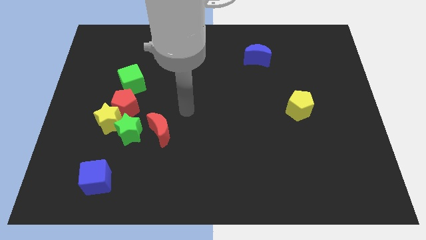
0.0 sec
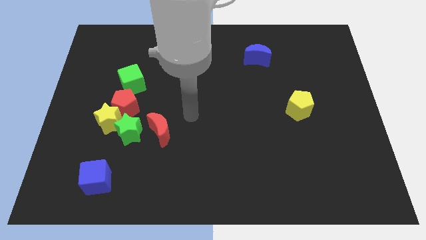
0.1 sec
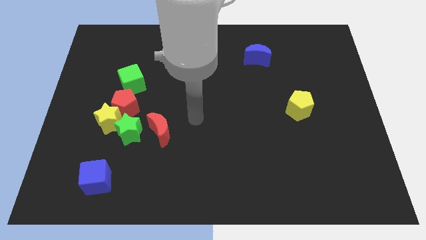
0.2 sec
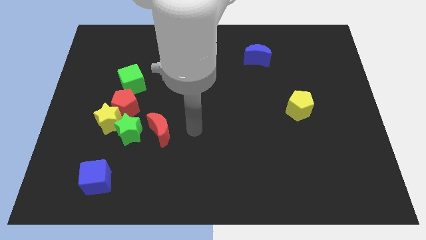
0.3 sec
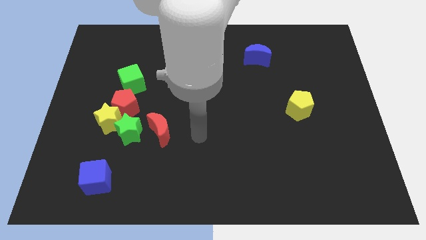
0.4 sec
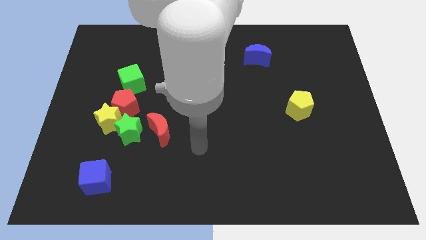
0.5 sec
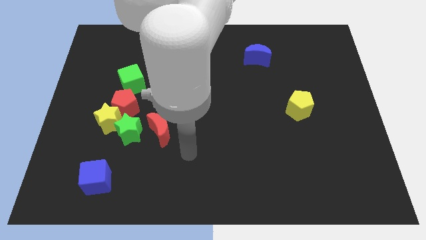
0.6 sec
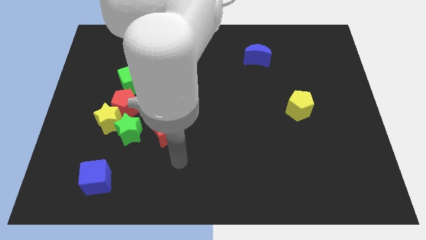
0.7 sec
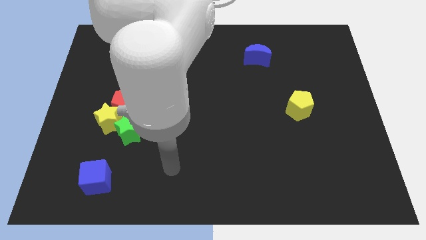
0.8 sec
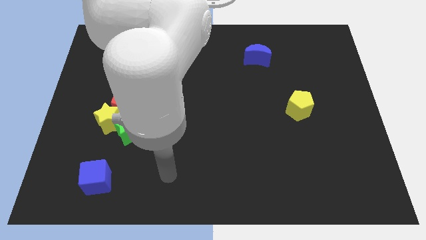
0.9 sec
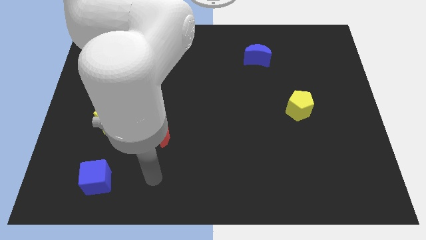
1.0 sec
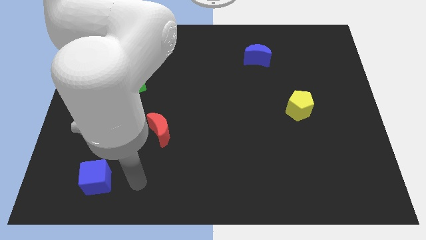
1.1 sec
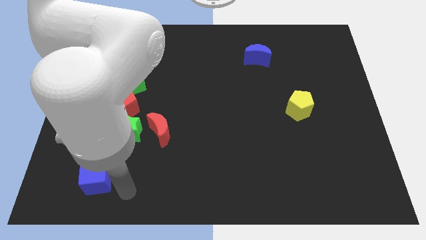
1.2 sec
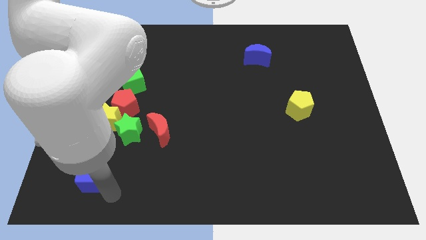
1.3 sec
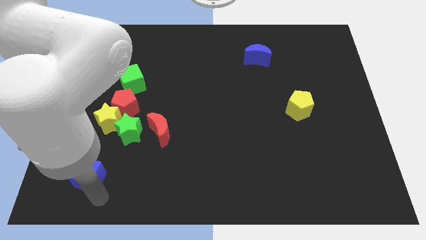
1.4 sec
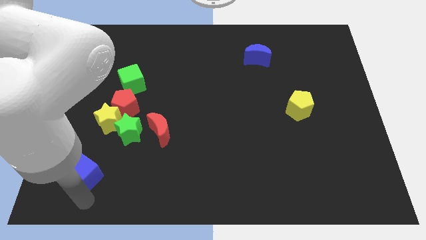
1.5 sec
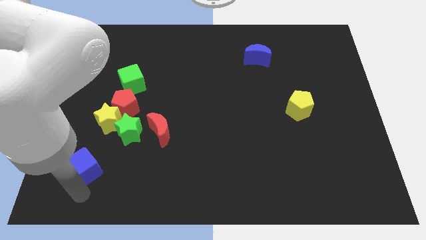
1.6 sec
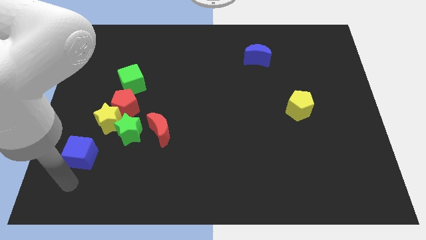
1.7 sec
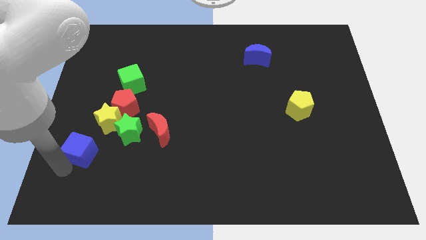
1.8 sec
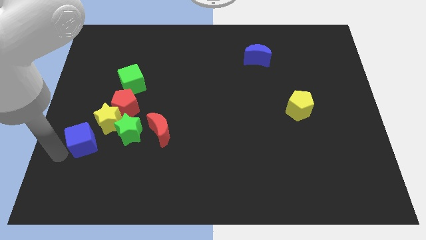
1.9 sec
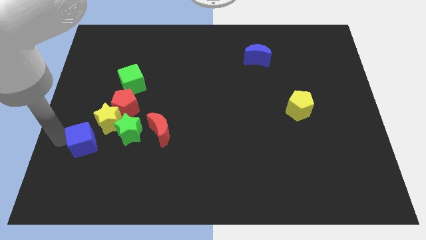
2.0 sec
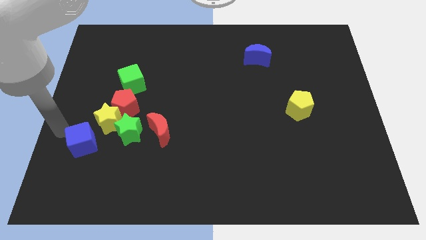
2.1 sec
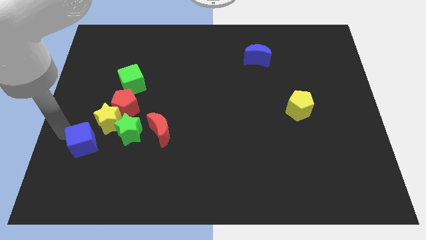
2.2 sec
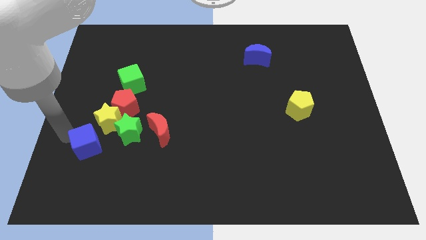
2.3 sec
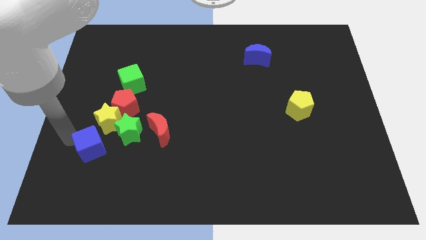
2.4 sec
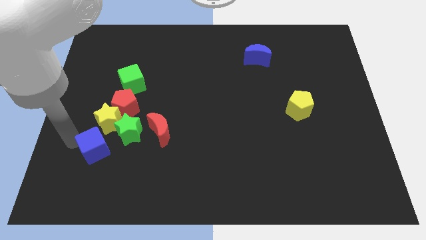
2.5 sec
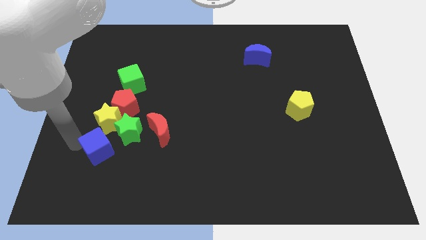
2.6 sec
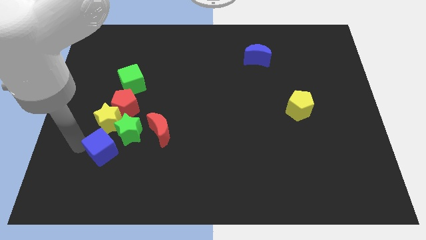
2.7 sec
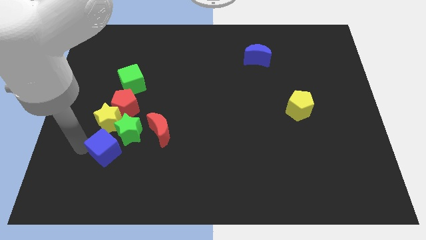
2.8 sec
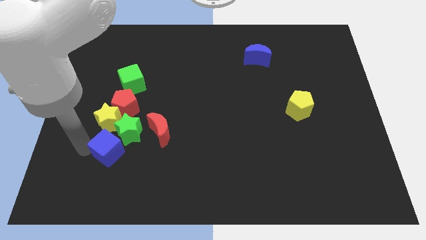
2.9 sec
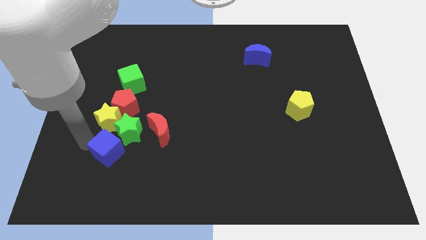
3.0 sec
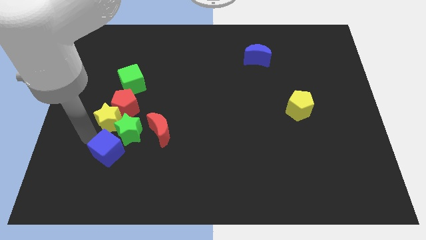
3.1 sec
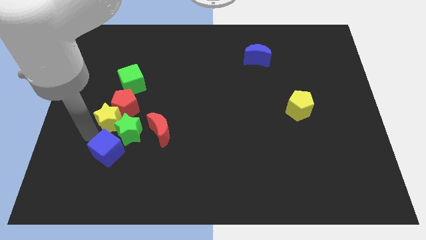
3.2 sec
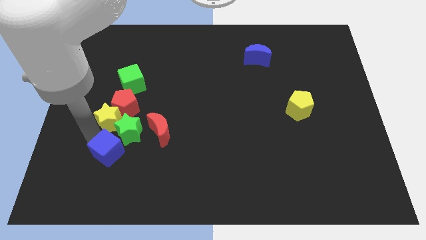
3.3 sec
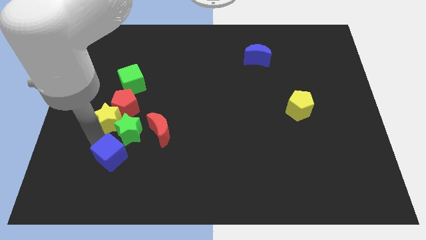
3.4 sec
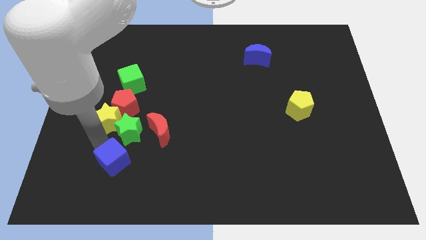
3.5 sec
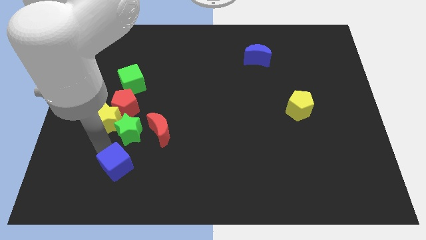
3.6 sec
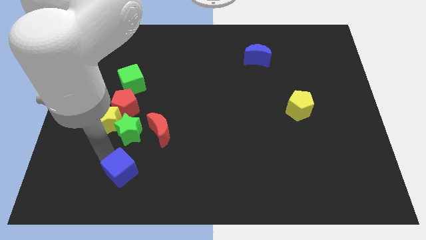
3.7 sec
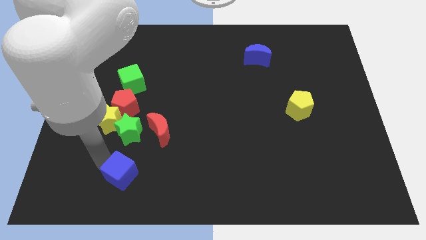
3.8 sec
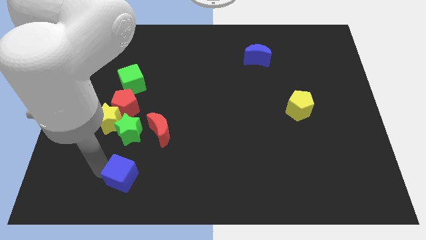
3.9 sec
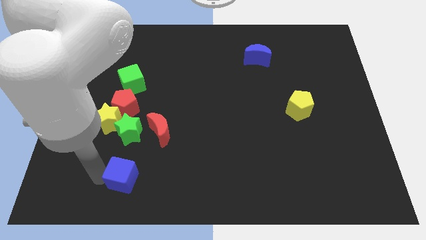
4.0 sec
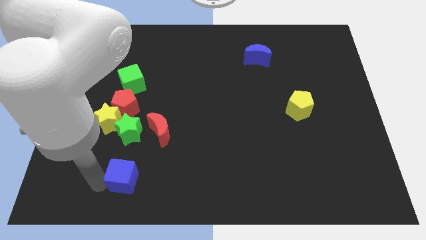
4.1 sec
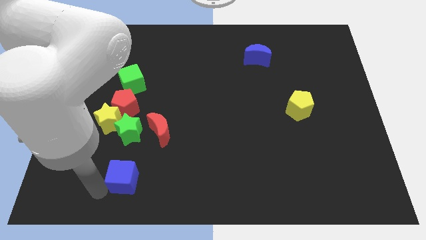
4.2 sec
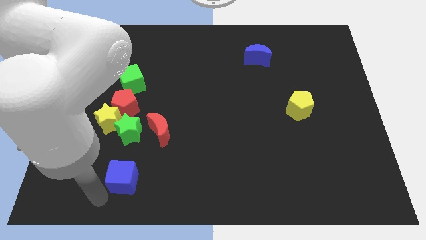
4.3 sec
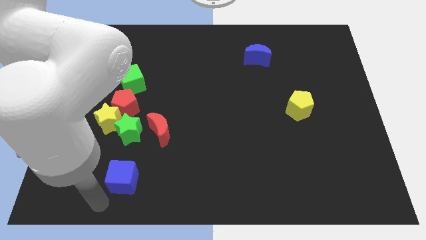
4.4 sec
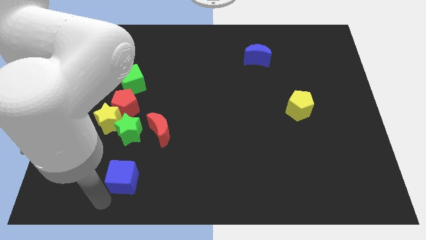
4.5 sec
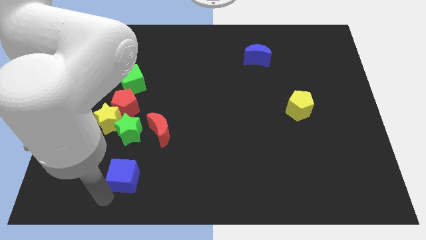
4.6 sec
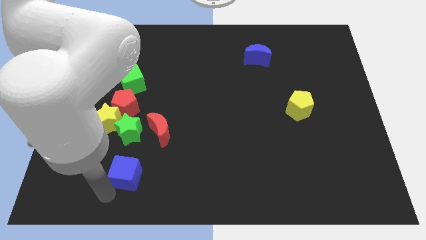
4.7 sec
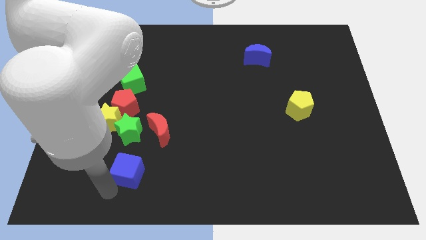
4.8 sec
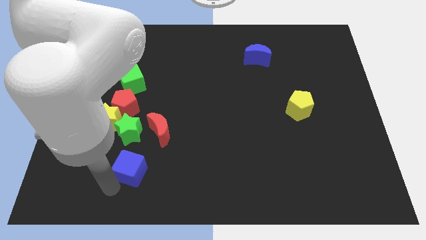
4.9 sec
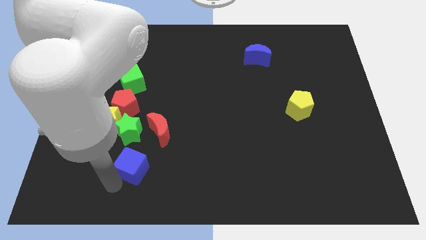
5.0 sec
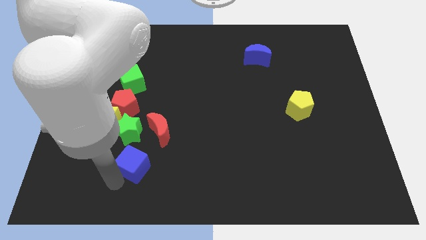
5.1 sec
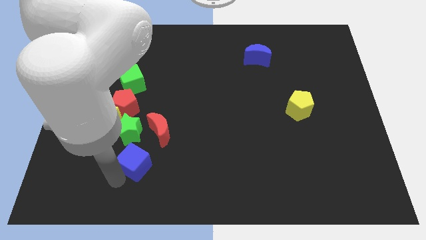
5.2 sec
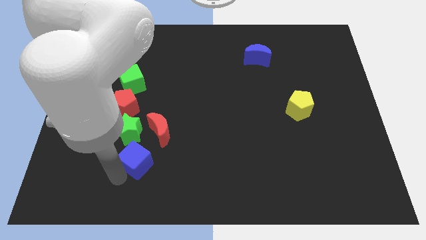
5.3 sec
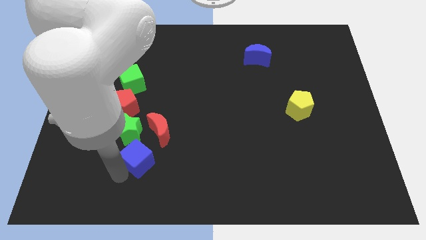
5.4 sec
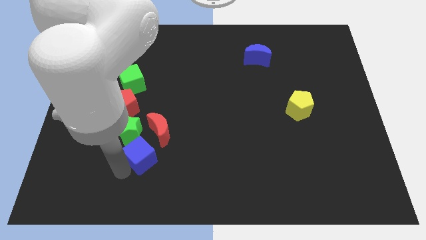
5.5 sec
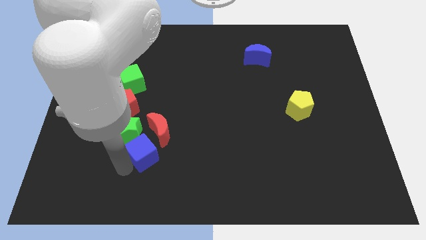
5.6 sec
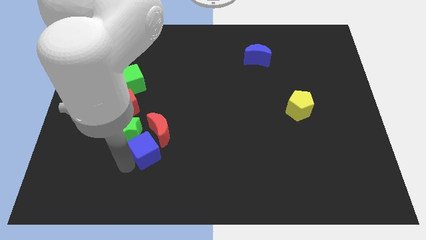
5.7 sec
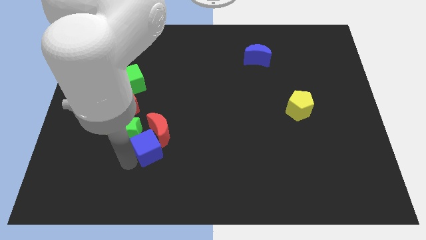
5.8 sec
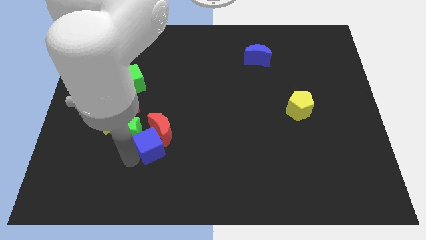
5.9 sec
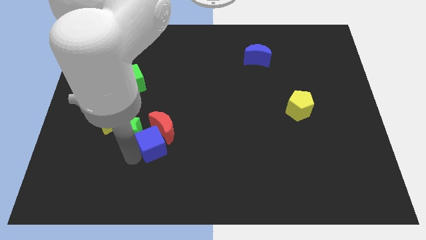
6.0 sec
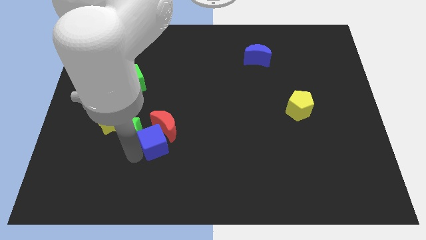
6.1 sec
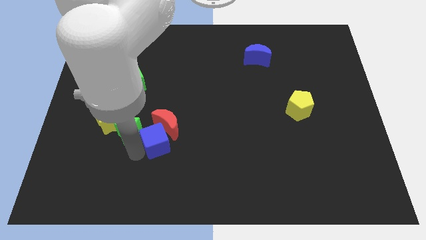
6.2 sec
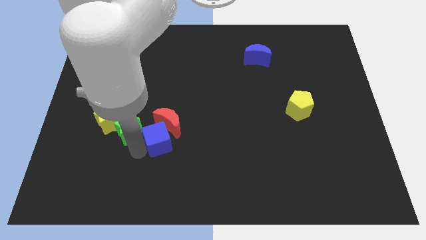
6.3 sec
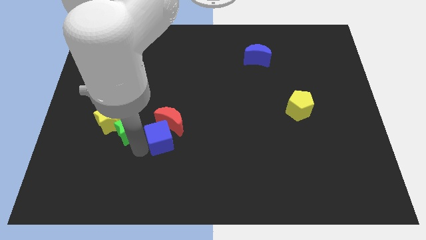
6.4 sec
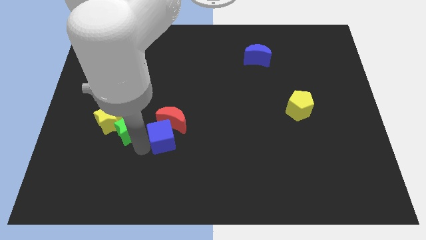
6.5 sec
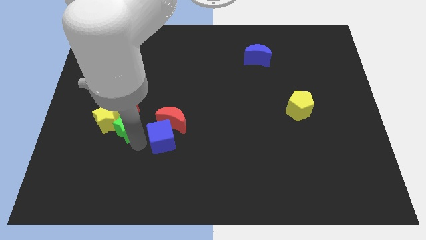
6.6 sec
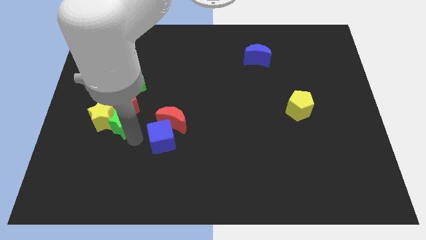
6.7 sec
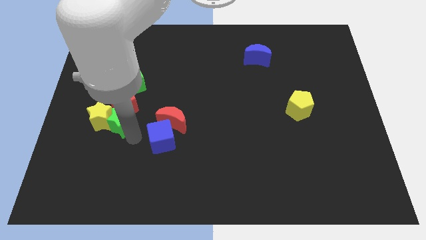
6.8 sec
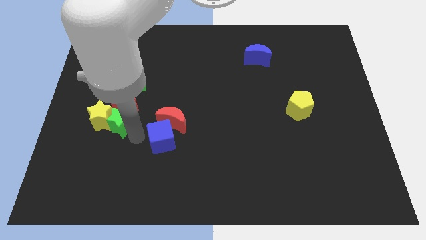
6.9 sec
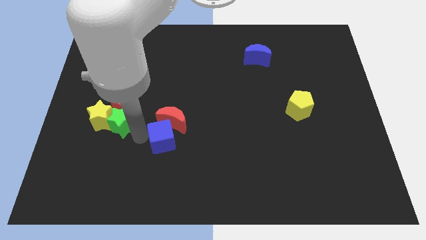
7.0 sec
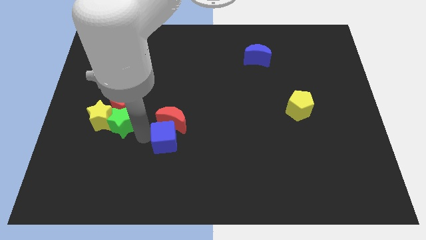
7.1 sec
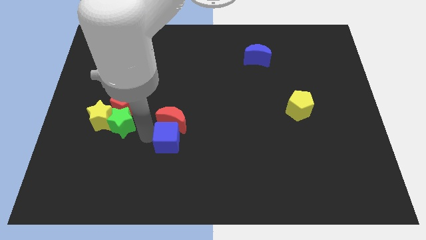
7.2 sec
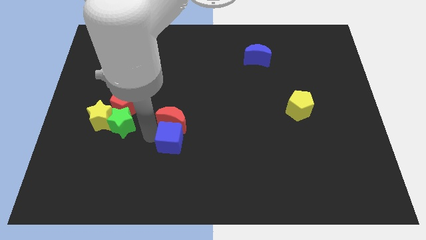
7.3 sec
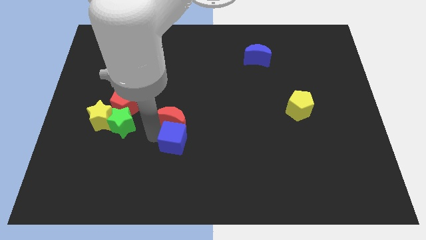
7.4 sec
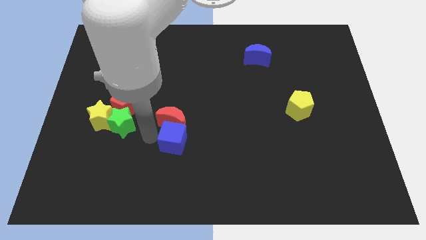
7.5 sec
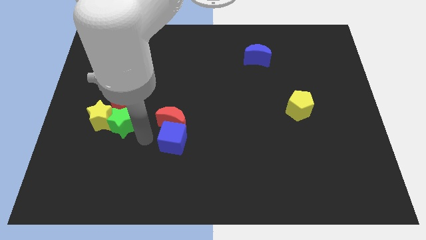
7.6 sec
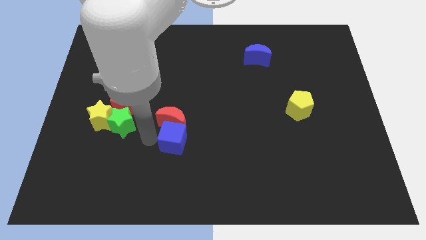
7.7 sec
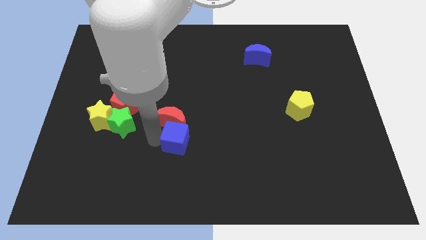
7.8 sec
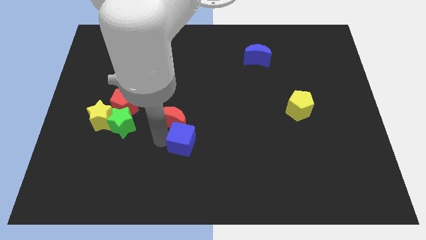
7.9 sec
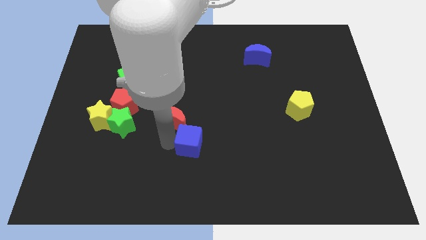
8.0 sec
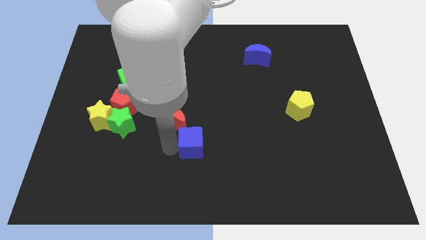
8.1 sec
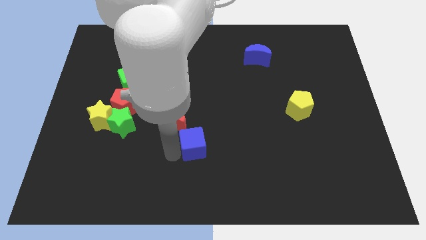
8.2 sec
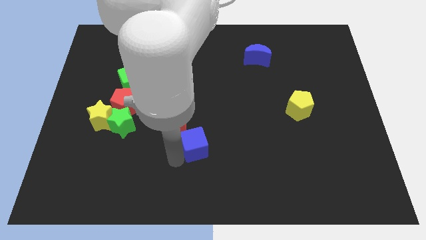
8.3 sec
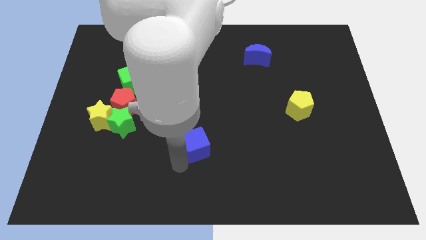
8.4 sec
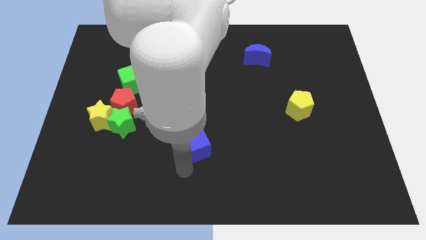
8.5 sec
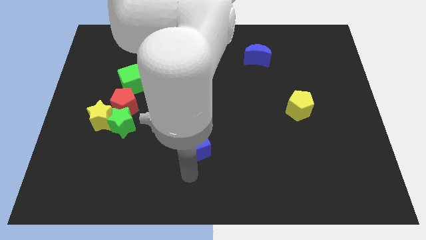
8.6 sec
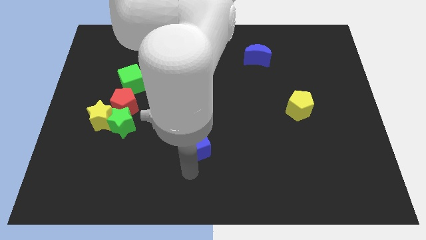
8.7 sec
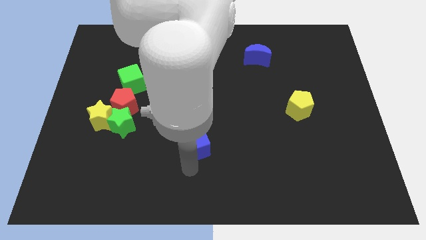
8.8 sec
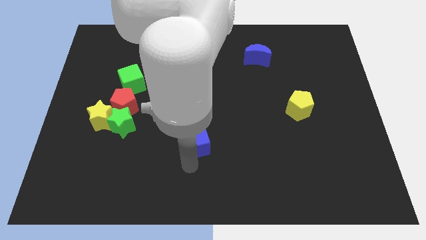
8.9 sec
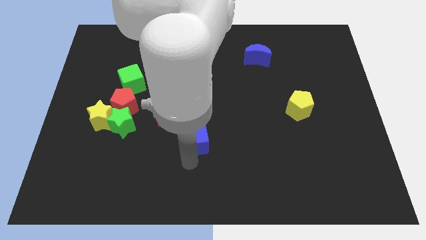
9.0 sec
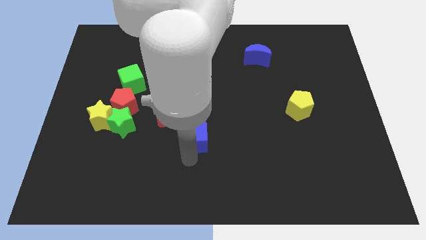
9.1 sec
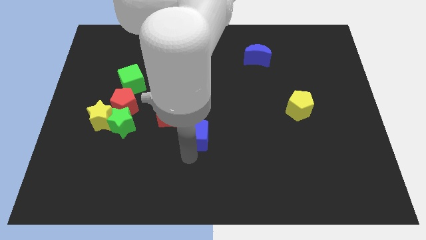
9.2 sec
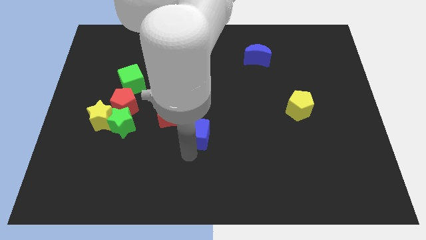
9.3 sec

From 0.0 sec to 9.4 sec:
slide the blue cube upwards and to the right diagonally
